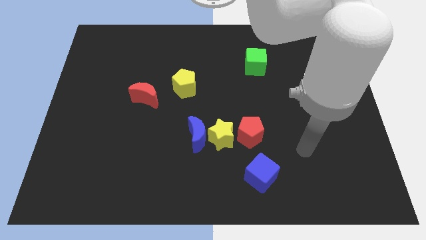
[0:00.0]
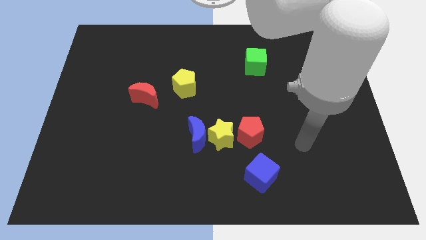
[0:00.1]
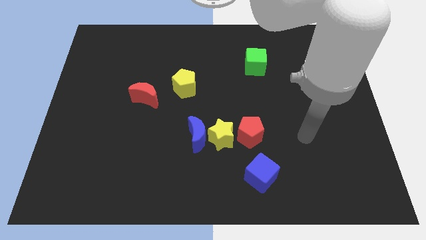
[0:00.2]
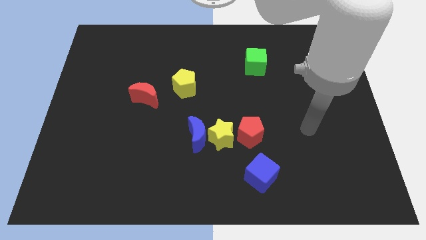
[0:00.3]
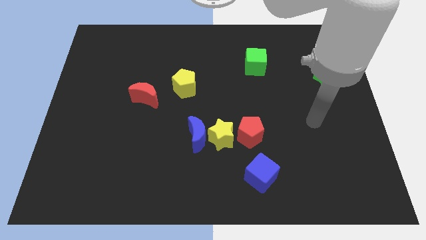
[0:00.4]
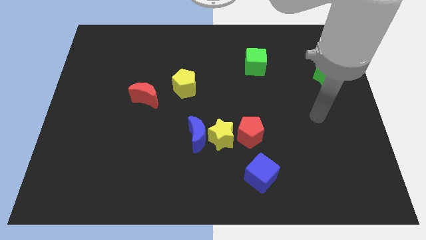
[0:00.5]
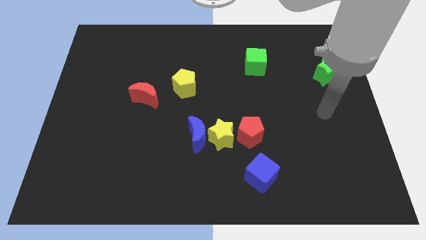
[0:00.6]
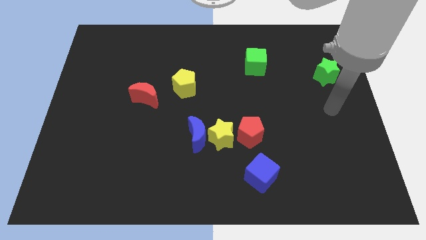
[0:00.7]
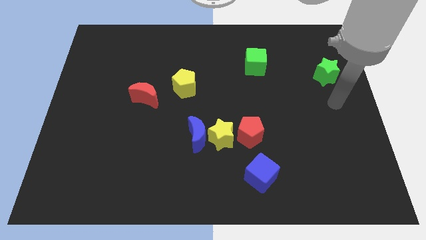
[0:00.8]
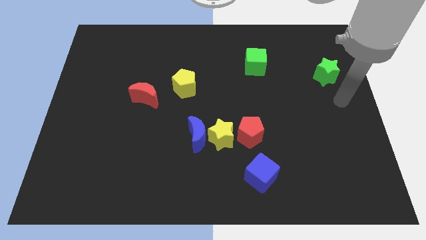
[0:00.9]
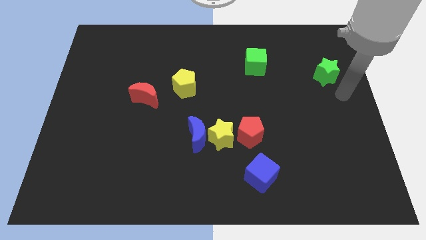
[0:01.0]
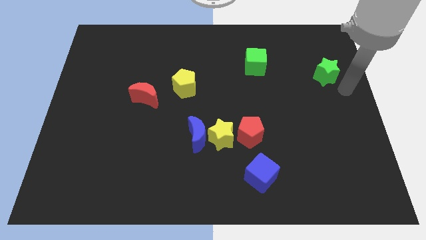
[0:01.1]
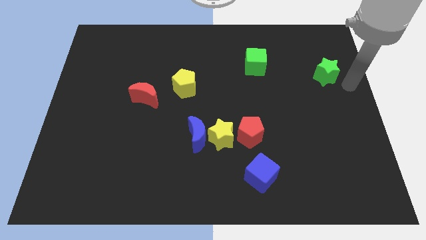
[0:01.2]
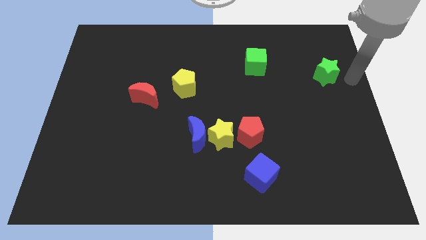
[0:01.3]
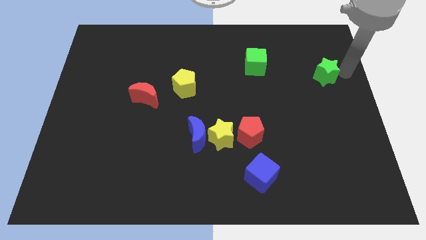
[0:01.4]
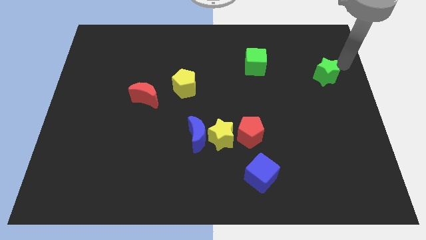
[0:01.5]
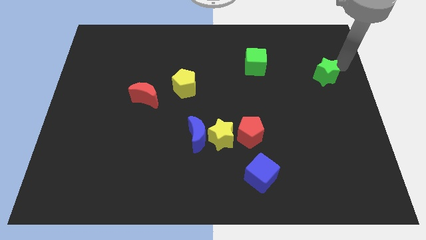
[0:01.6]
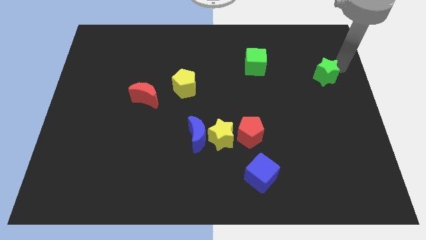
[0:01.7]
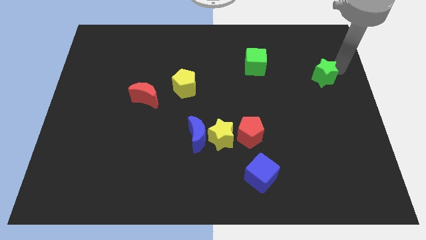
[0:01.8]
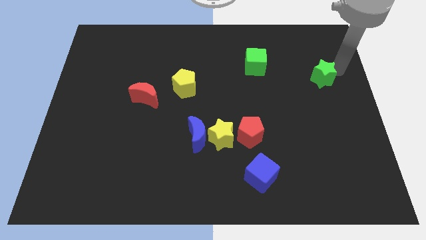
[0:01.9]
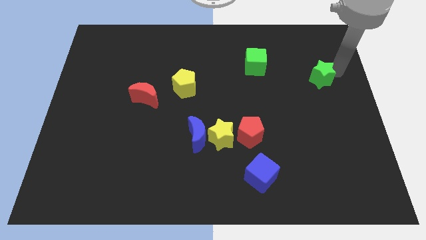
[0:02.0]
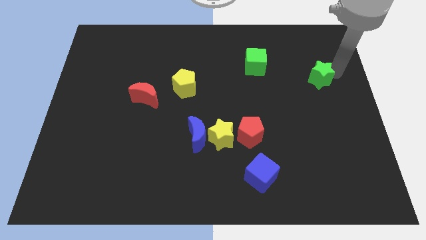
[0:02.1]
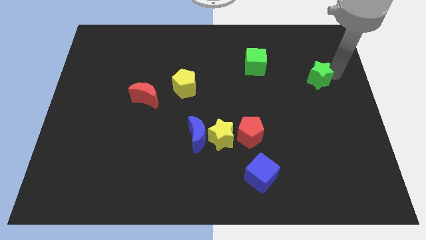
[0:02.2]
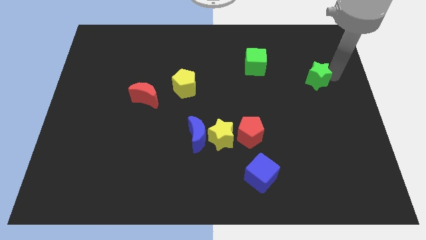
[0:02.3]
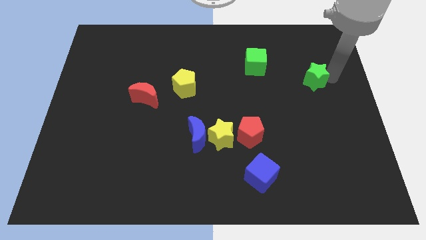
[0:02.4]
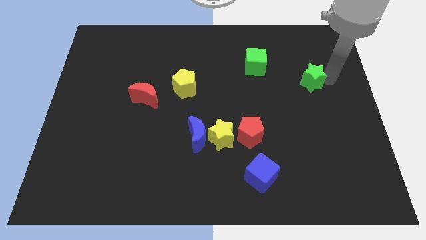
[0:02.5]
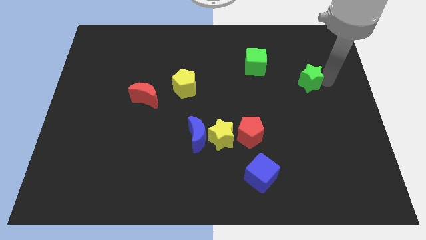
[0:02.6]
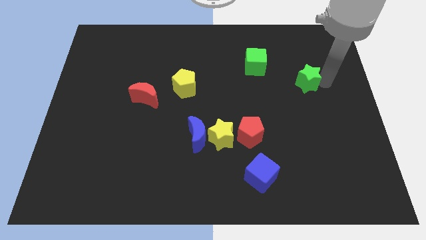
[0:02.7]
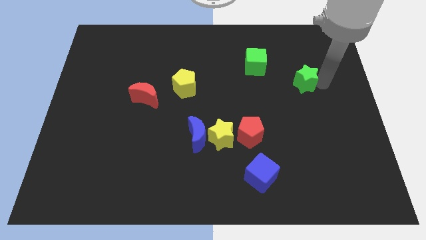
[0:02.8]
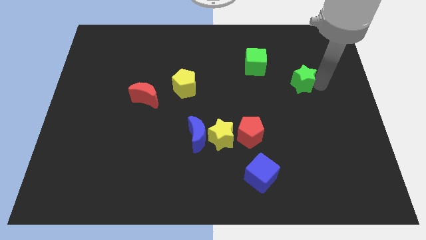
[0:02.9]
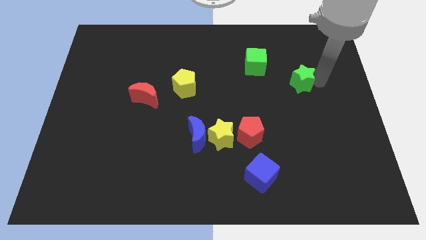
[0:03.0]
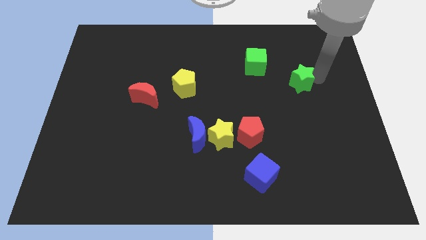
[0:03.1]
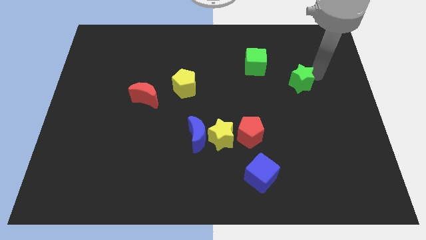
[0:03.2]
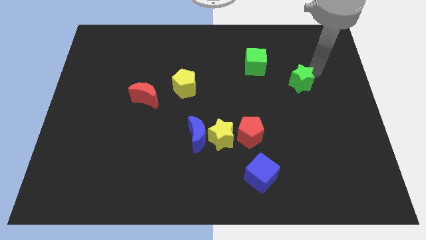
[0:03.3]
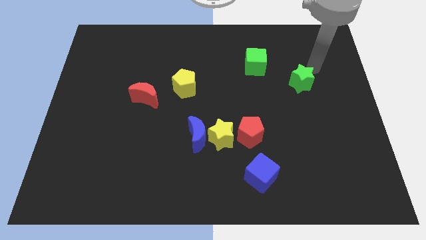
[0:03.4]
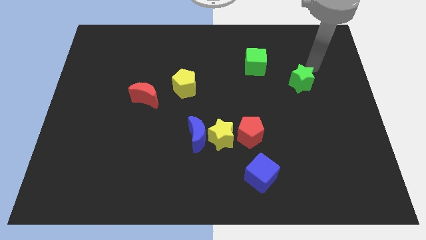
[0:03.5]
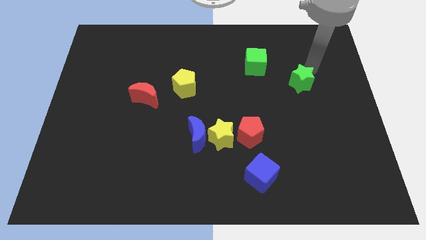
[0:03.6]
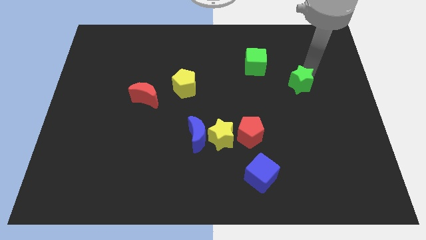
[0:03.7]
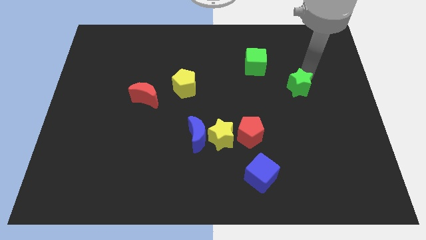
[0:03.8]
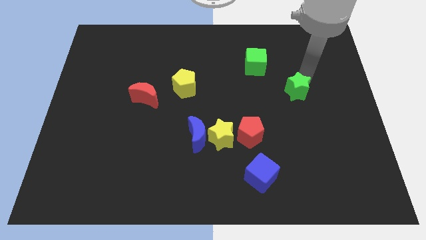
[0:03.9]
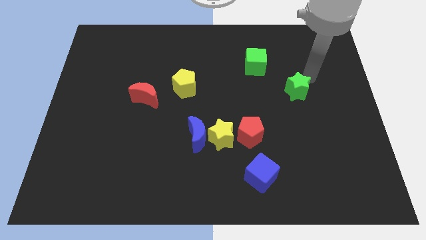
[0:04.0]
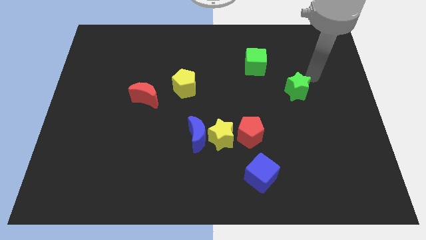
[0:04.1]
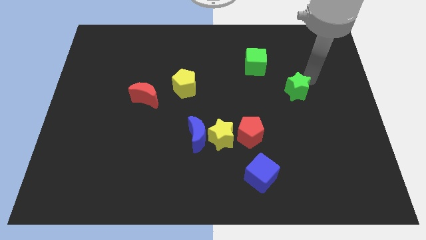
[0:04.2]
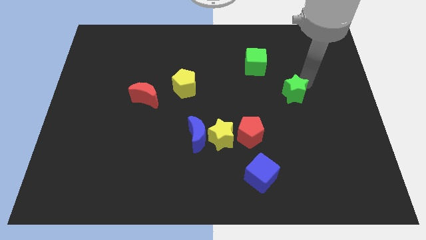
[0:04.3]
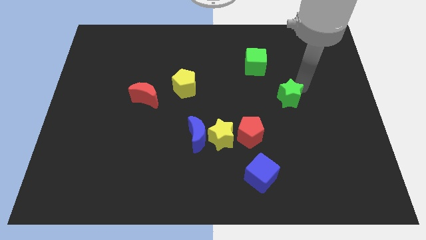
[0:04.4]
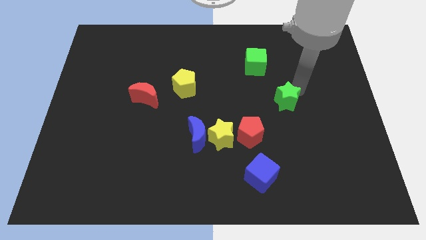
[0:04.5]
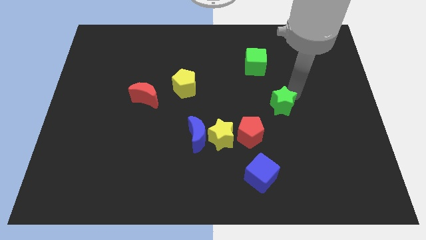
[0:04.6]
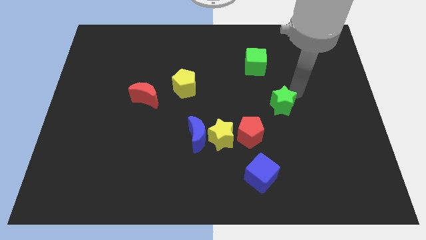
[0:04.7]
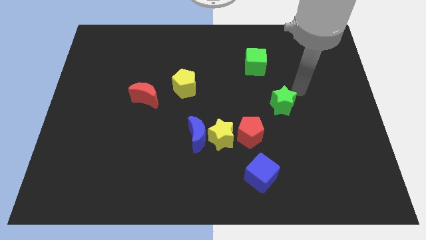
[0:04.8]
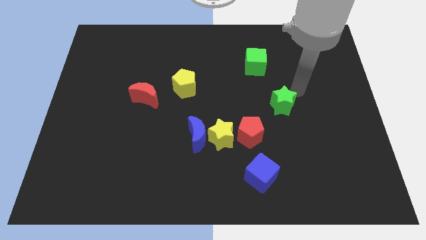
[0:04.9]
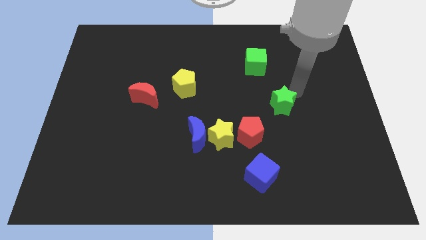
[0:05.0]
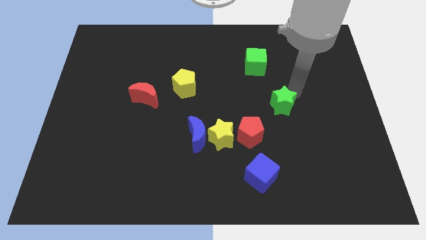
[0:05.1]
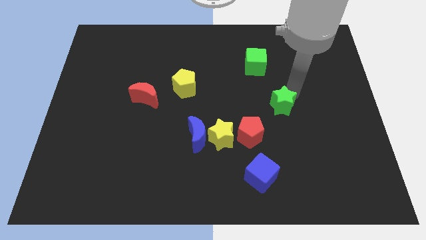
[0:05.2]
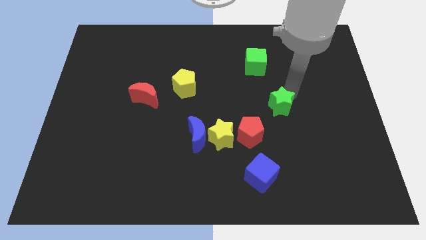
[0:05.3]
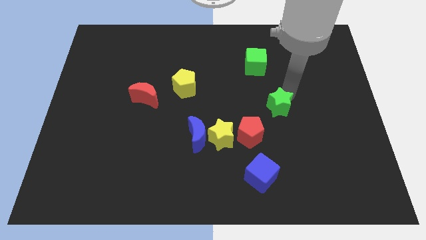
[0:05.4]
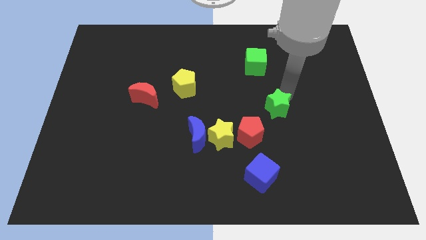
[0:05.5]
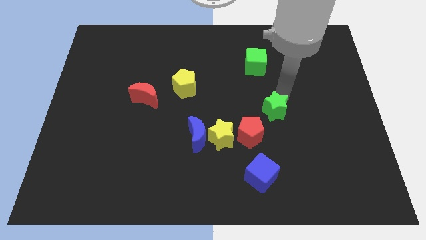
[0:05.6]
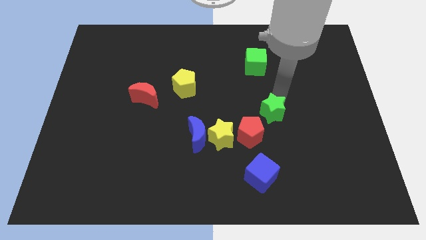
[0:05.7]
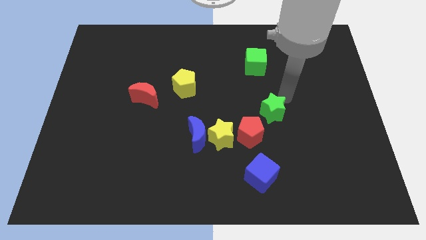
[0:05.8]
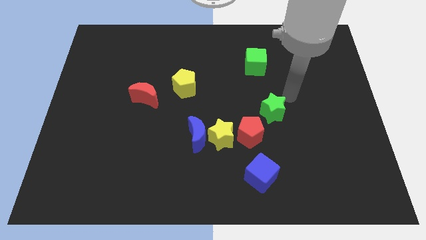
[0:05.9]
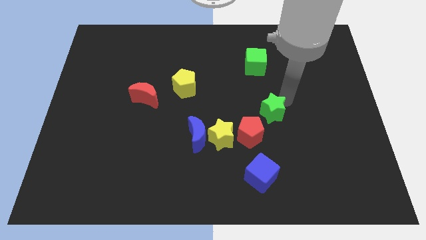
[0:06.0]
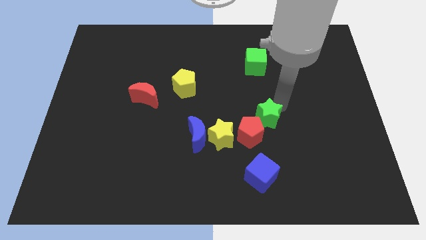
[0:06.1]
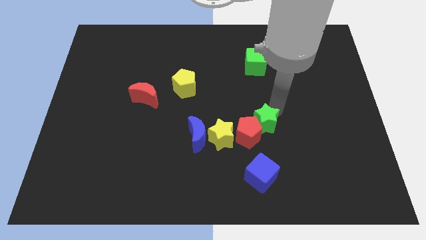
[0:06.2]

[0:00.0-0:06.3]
slide the green star to the red pentagon
